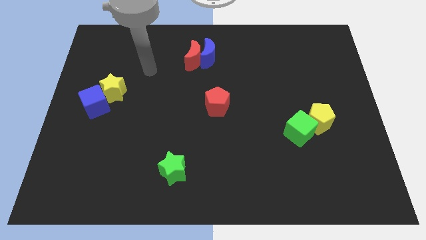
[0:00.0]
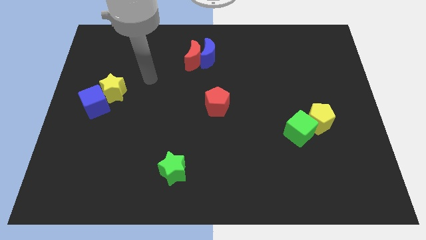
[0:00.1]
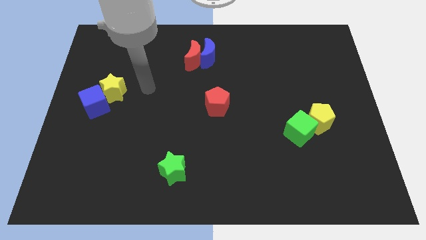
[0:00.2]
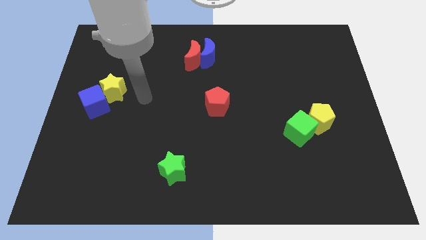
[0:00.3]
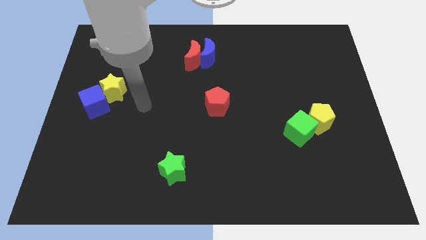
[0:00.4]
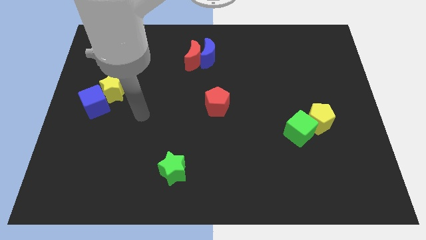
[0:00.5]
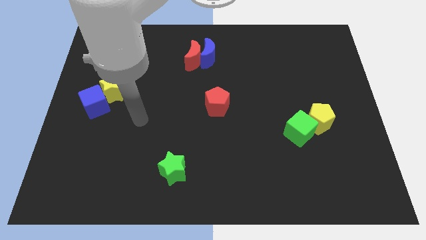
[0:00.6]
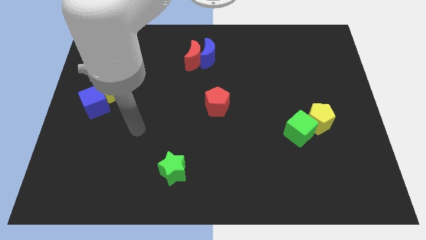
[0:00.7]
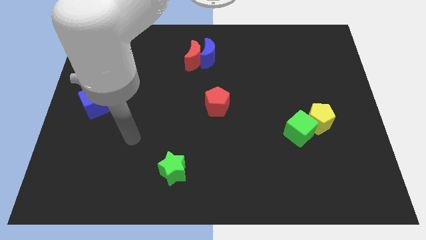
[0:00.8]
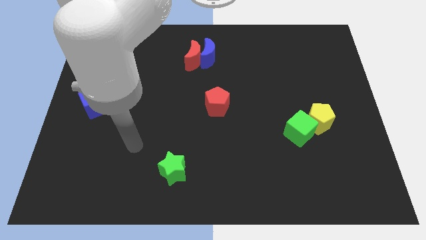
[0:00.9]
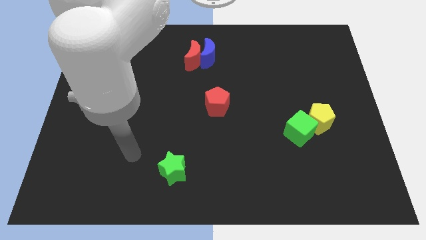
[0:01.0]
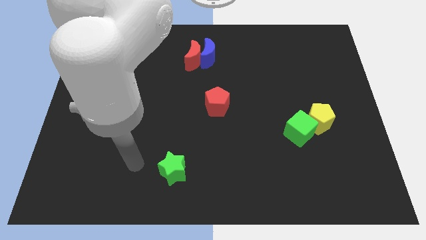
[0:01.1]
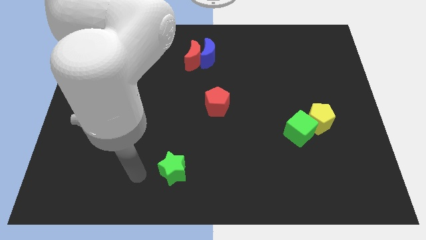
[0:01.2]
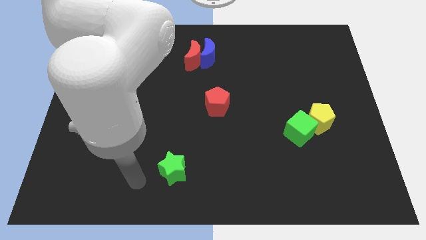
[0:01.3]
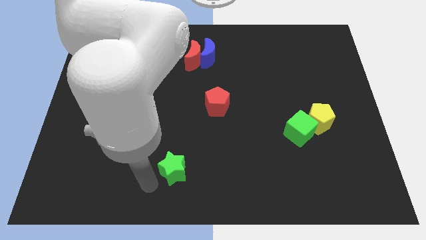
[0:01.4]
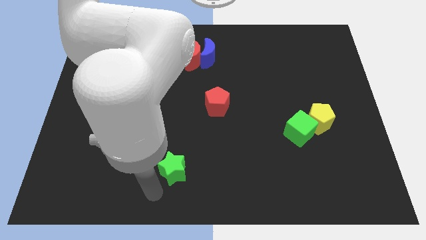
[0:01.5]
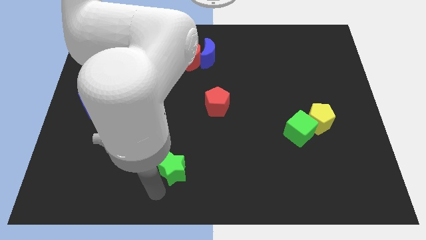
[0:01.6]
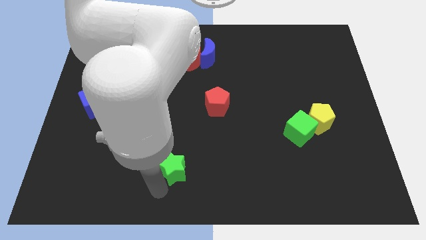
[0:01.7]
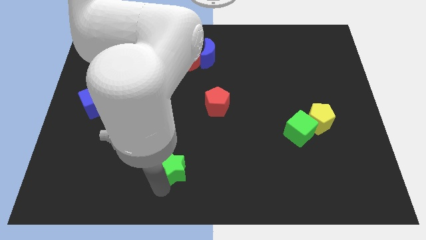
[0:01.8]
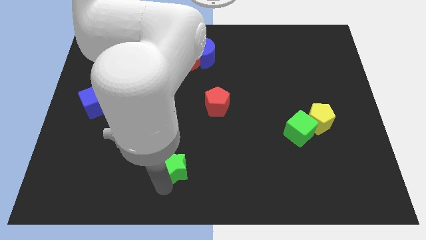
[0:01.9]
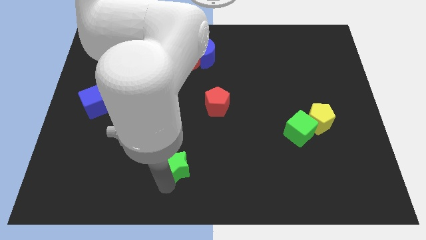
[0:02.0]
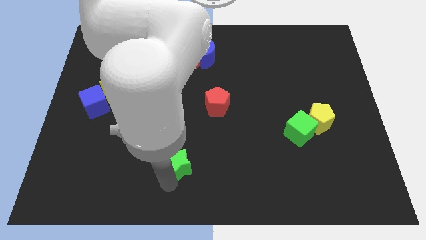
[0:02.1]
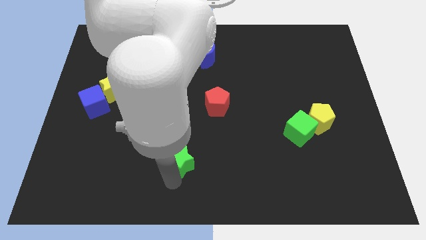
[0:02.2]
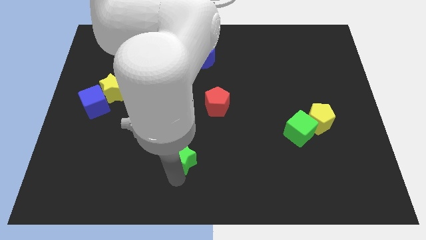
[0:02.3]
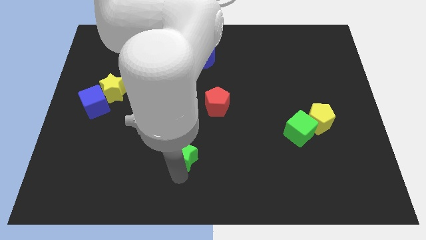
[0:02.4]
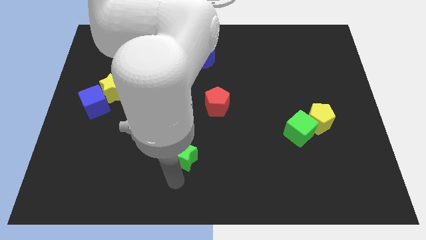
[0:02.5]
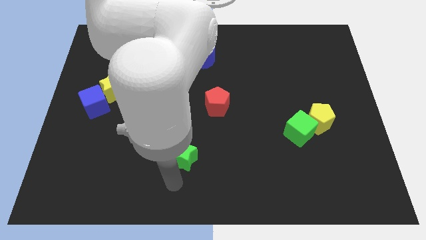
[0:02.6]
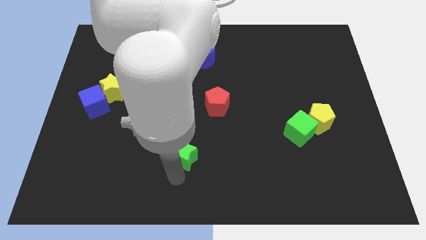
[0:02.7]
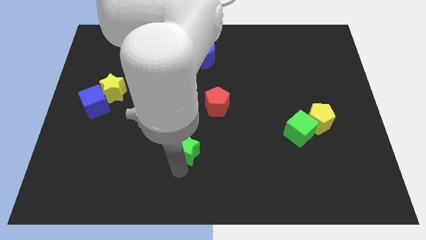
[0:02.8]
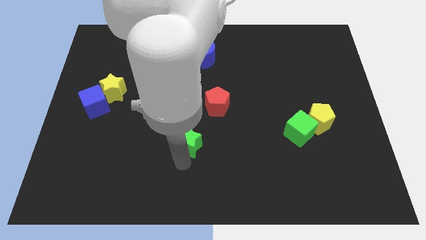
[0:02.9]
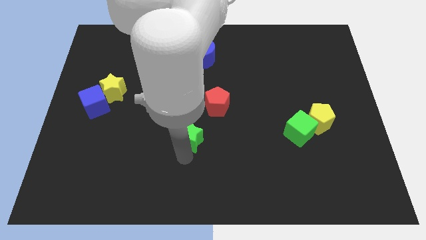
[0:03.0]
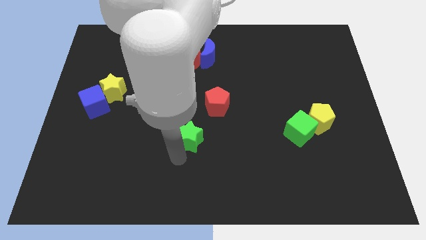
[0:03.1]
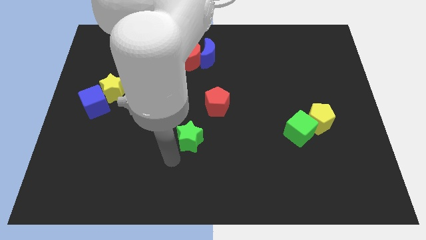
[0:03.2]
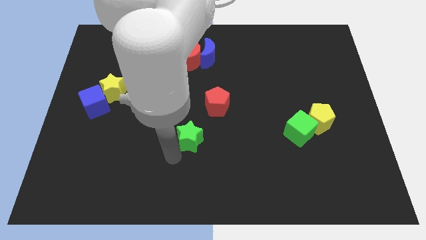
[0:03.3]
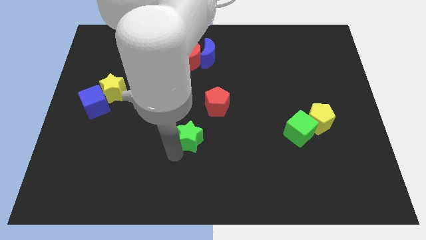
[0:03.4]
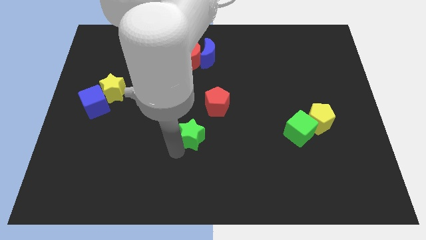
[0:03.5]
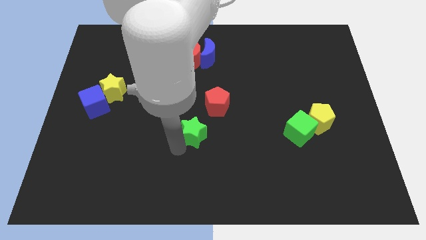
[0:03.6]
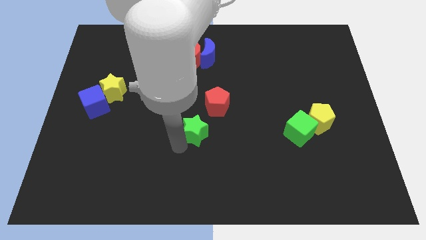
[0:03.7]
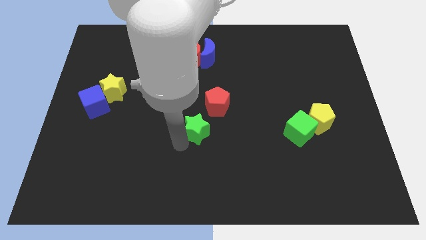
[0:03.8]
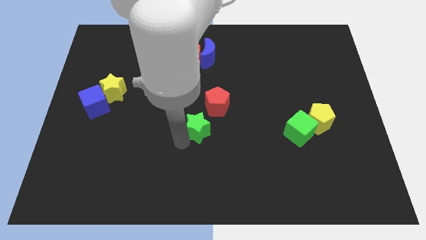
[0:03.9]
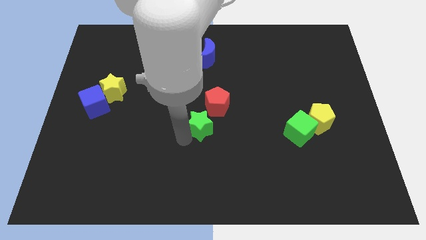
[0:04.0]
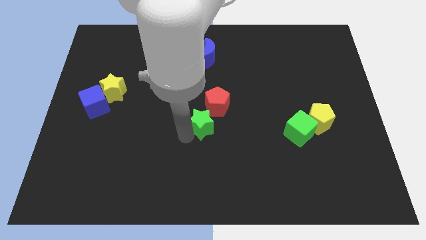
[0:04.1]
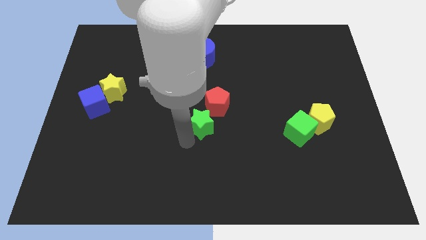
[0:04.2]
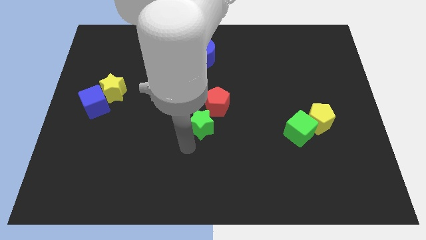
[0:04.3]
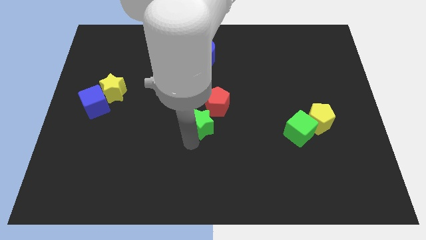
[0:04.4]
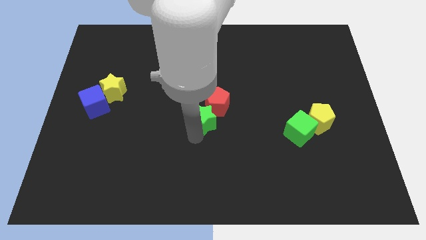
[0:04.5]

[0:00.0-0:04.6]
move the green star next to the red pentagon

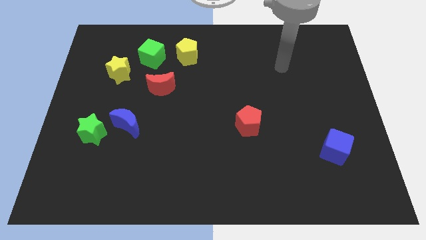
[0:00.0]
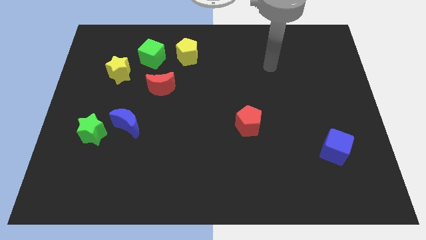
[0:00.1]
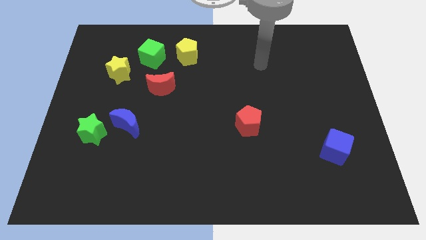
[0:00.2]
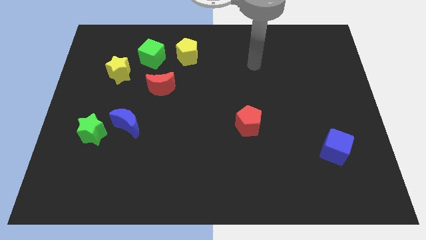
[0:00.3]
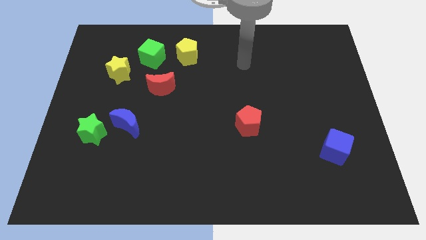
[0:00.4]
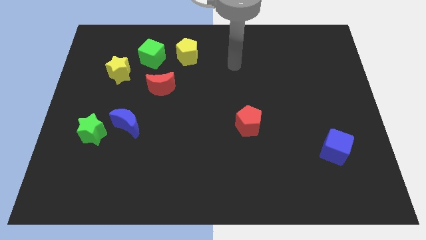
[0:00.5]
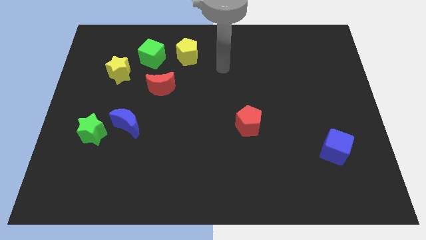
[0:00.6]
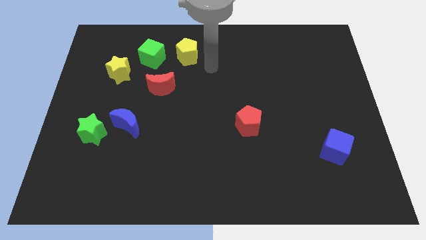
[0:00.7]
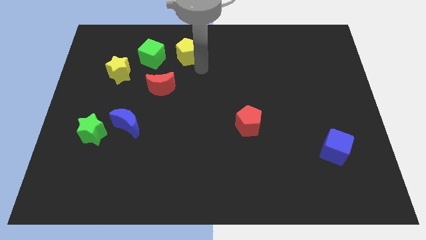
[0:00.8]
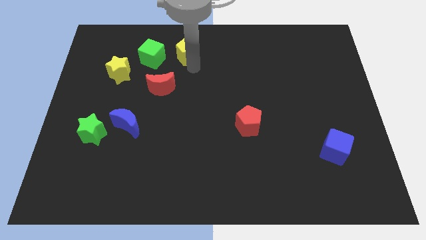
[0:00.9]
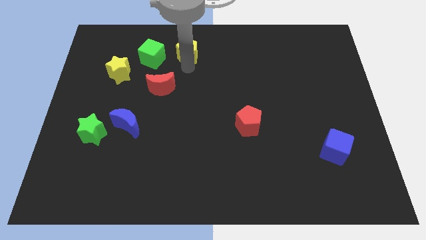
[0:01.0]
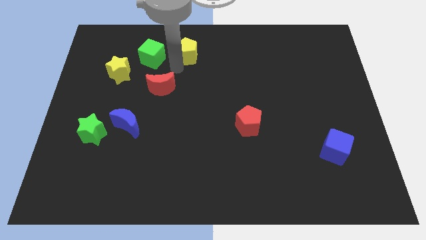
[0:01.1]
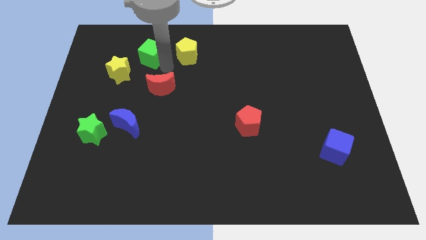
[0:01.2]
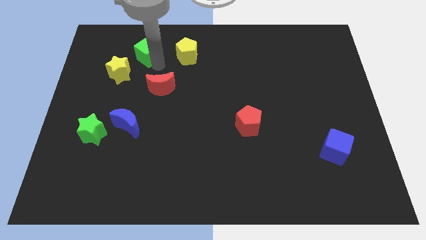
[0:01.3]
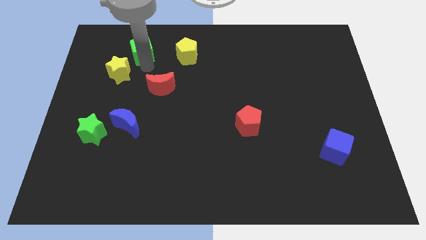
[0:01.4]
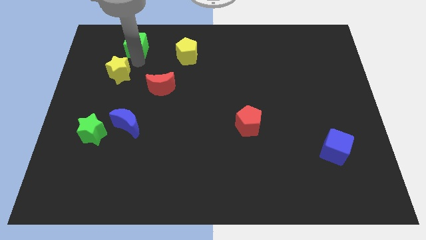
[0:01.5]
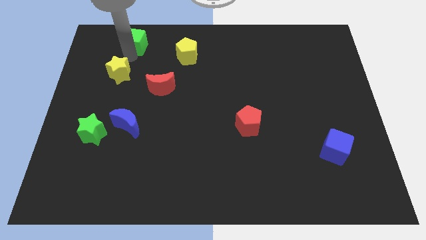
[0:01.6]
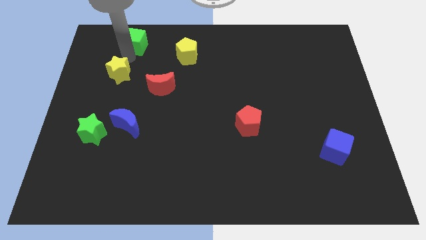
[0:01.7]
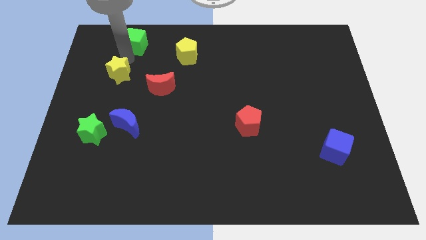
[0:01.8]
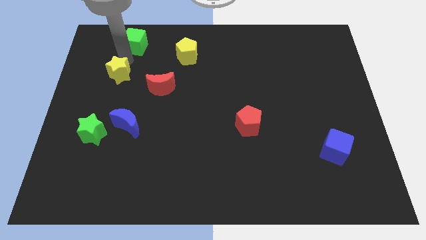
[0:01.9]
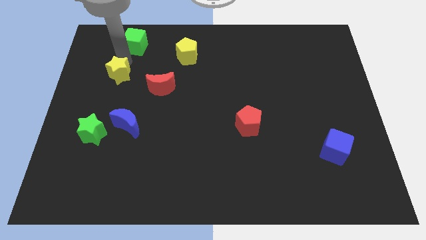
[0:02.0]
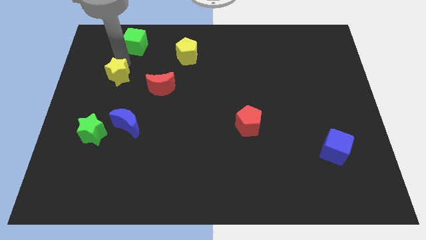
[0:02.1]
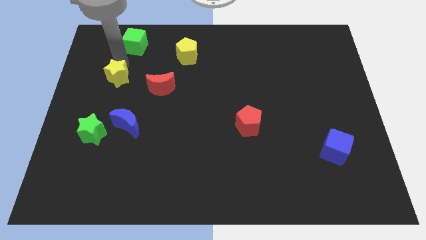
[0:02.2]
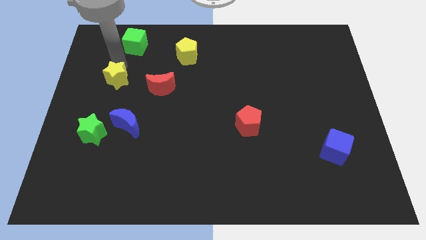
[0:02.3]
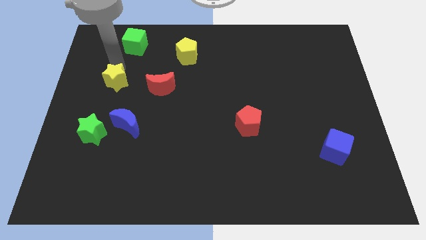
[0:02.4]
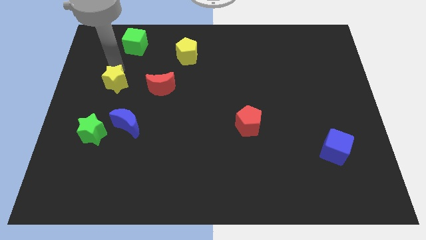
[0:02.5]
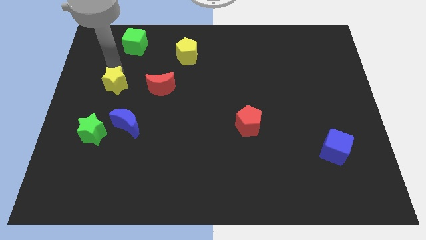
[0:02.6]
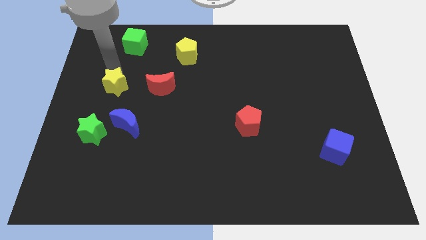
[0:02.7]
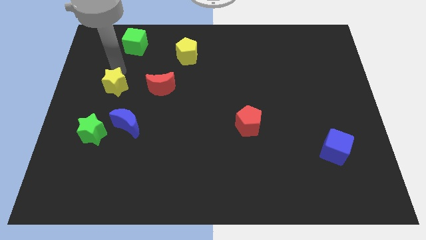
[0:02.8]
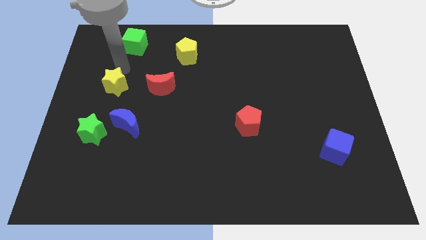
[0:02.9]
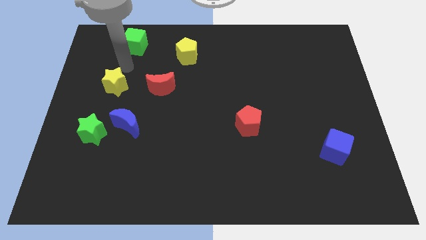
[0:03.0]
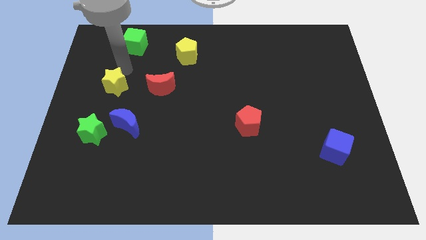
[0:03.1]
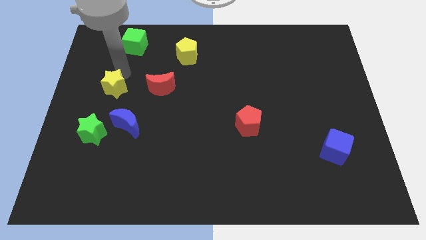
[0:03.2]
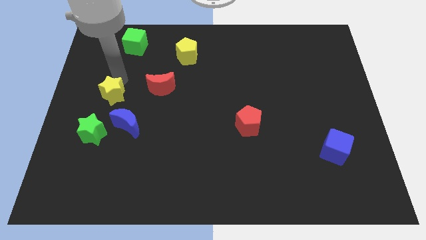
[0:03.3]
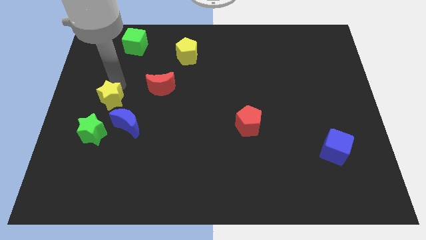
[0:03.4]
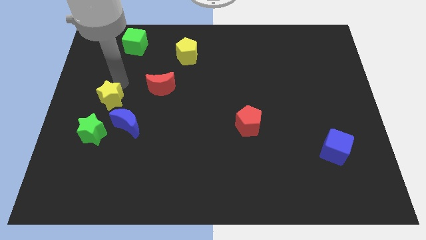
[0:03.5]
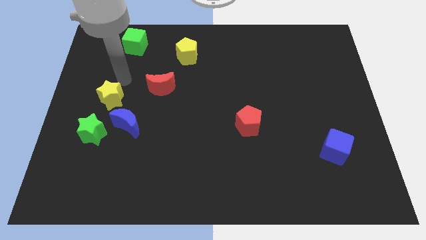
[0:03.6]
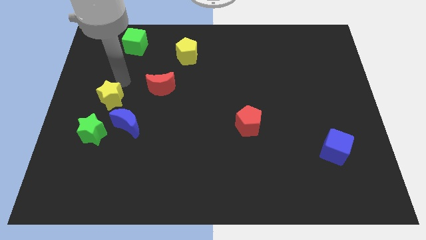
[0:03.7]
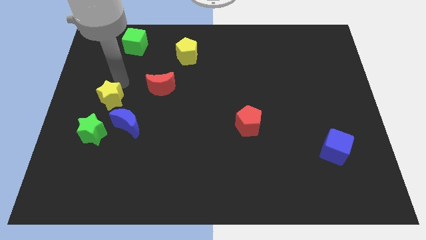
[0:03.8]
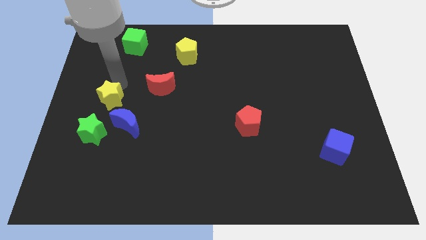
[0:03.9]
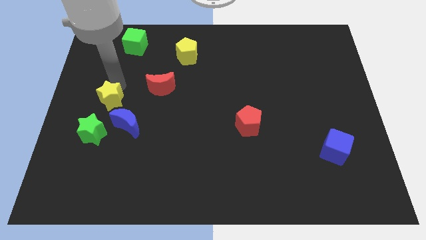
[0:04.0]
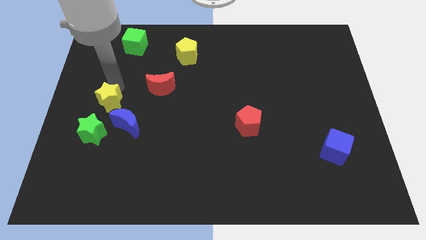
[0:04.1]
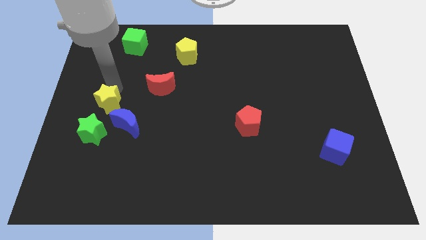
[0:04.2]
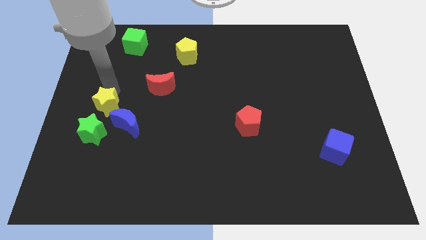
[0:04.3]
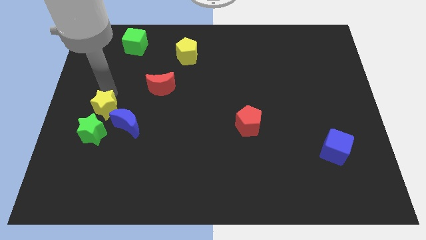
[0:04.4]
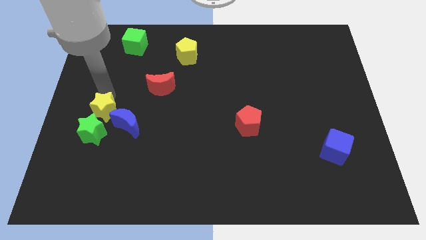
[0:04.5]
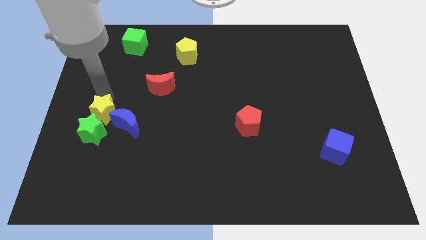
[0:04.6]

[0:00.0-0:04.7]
push the yellow star towards the green star
